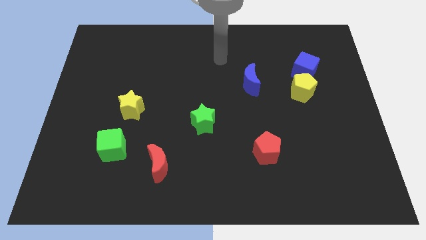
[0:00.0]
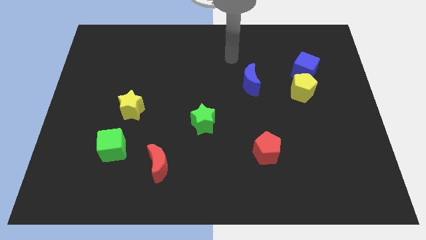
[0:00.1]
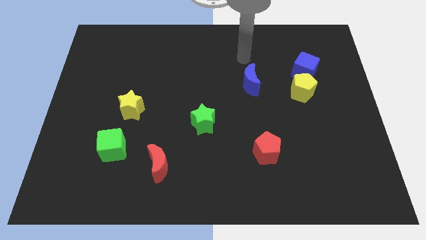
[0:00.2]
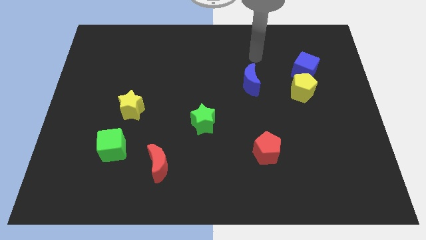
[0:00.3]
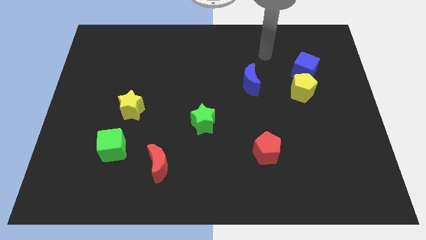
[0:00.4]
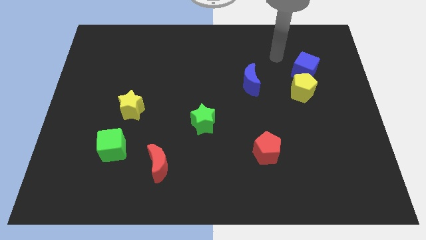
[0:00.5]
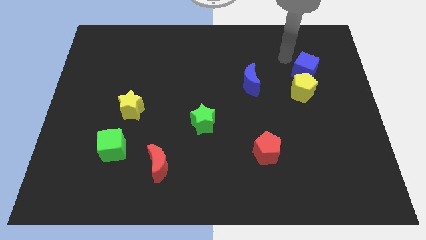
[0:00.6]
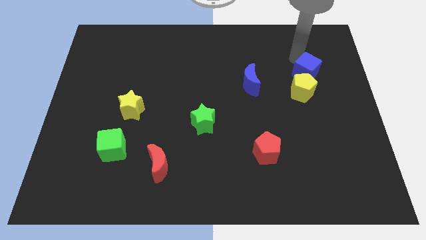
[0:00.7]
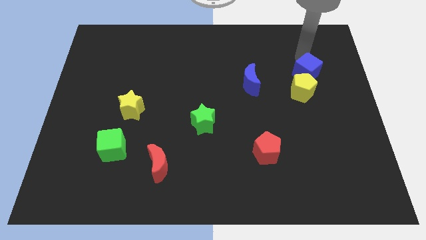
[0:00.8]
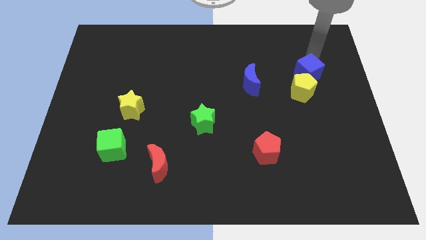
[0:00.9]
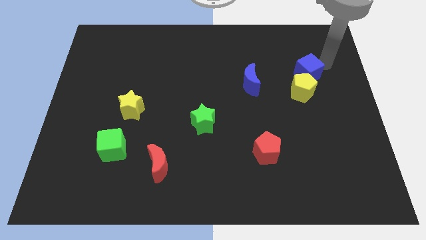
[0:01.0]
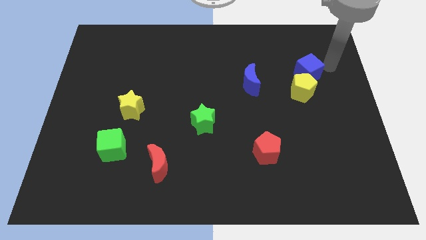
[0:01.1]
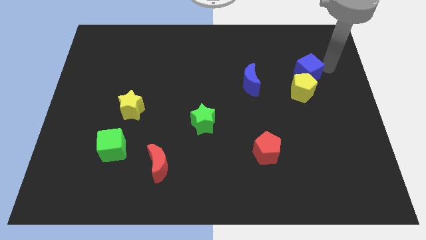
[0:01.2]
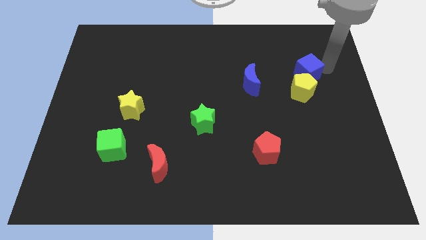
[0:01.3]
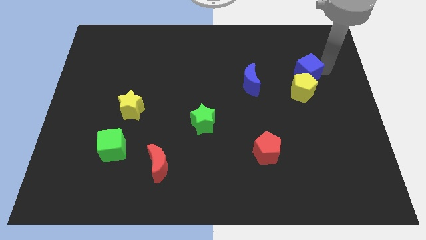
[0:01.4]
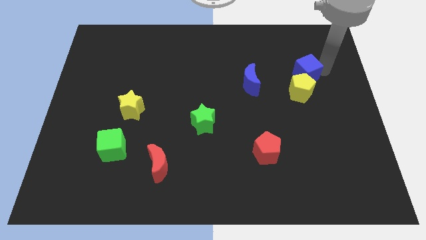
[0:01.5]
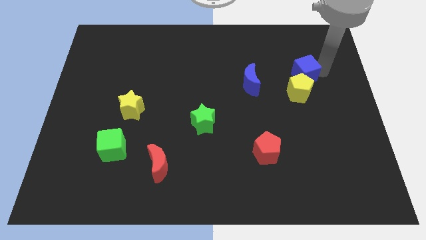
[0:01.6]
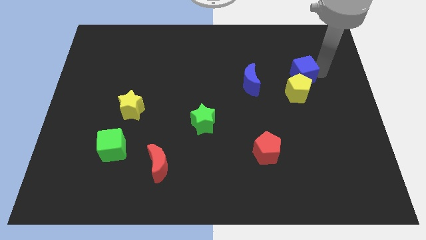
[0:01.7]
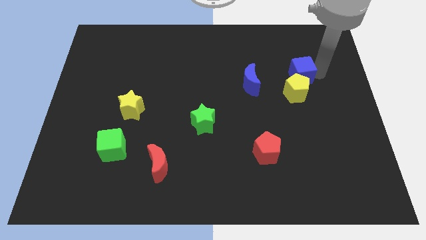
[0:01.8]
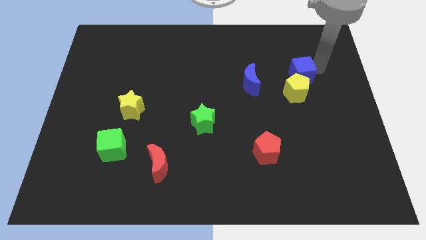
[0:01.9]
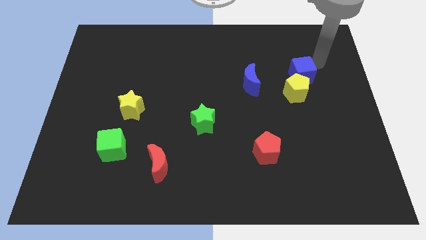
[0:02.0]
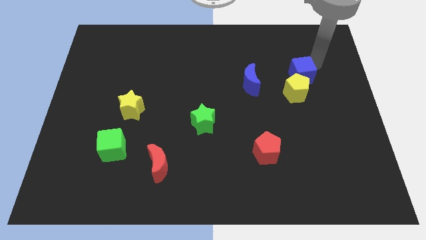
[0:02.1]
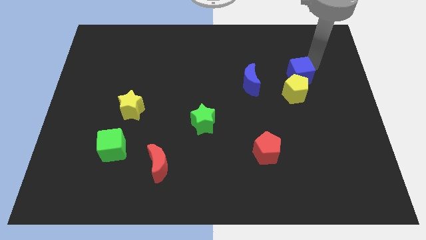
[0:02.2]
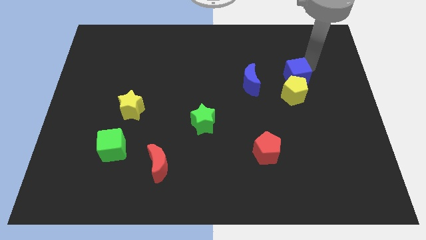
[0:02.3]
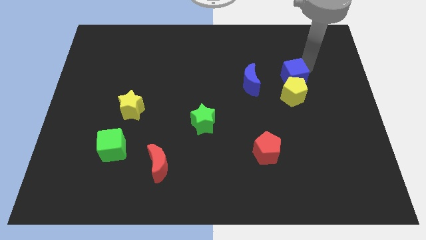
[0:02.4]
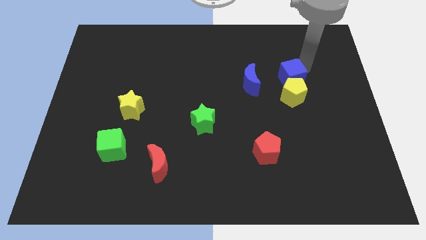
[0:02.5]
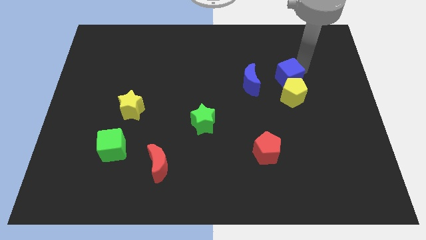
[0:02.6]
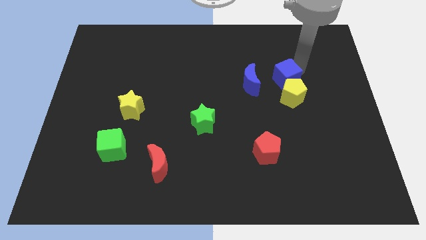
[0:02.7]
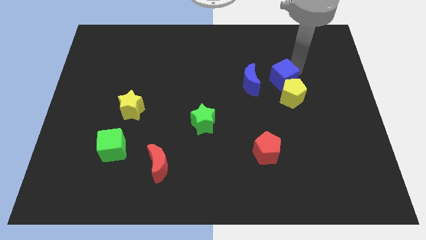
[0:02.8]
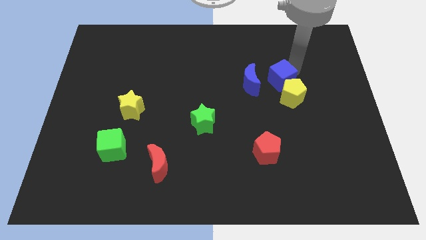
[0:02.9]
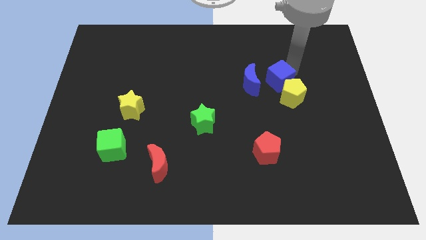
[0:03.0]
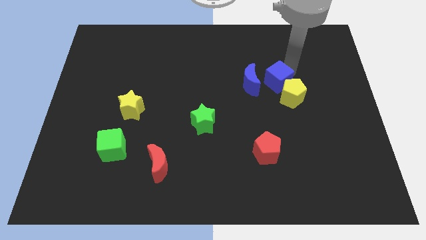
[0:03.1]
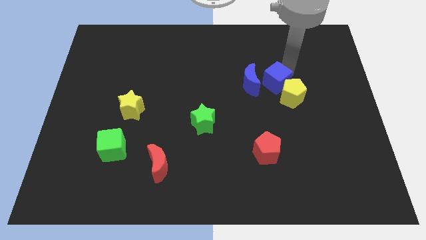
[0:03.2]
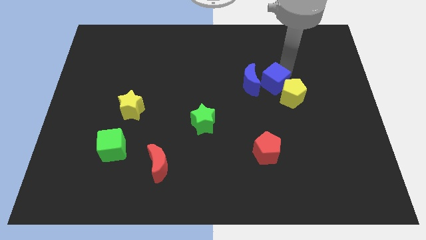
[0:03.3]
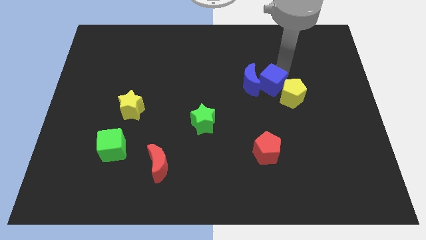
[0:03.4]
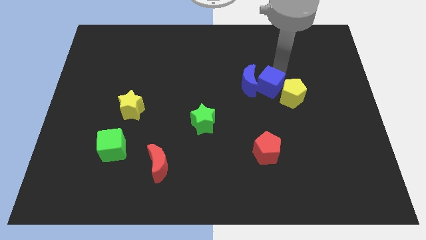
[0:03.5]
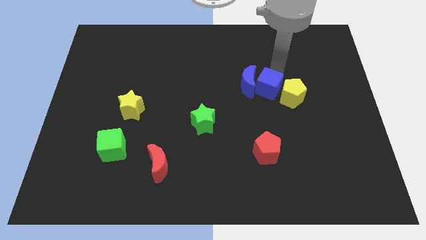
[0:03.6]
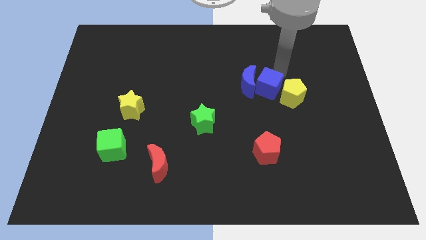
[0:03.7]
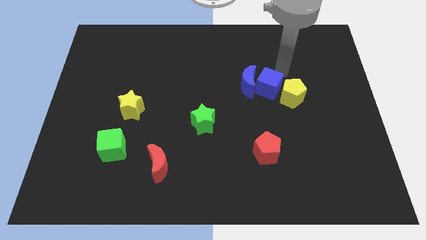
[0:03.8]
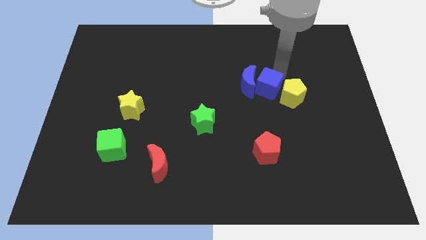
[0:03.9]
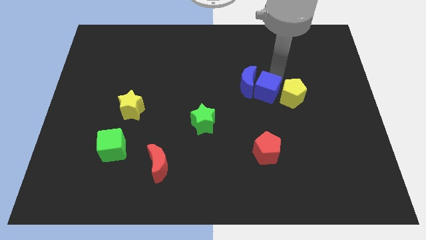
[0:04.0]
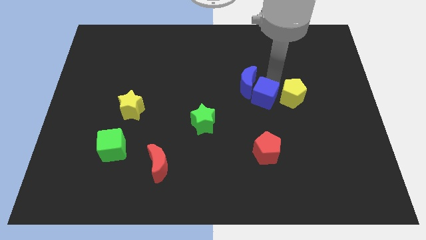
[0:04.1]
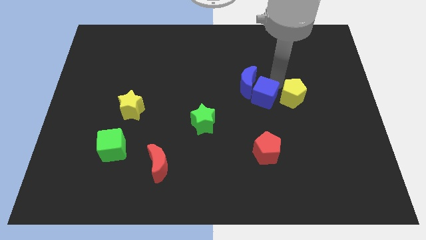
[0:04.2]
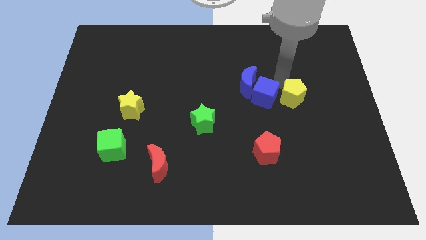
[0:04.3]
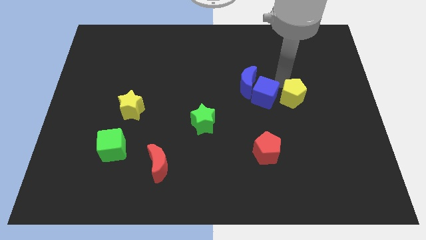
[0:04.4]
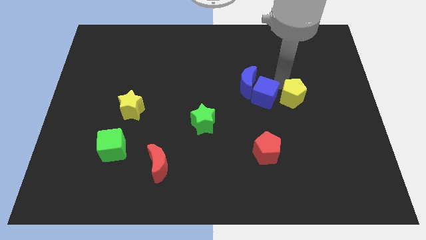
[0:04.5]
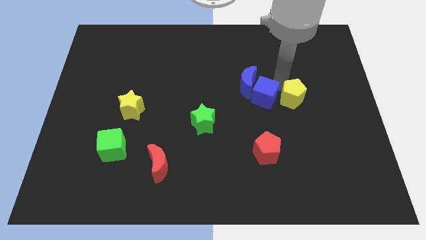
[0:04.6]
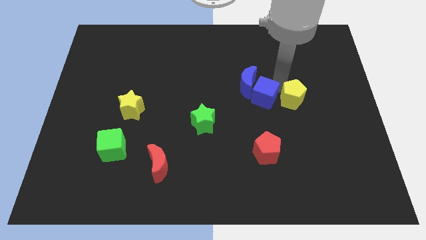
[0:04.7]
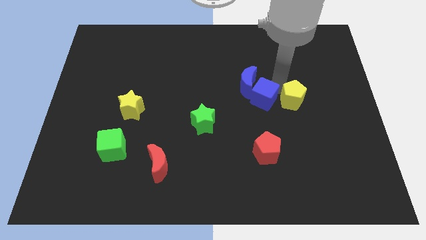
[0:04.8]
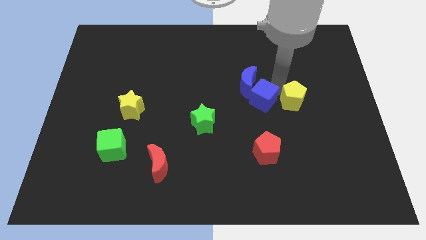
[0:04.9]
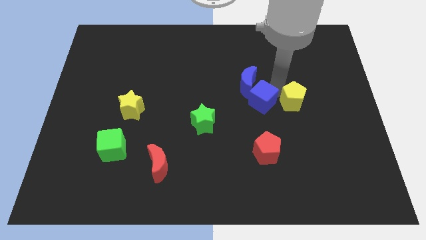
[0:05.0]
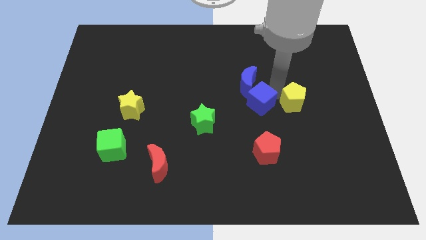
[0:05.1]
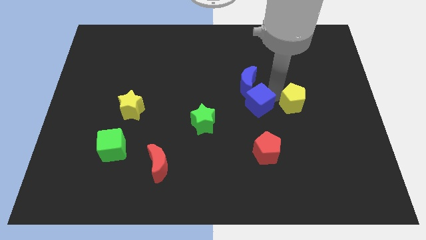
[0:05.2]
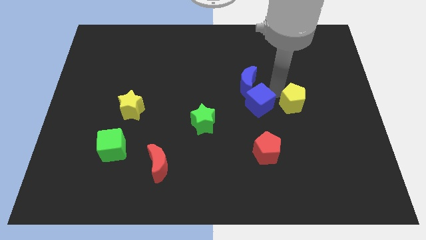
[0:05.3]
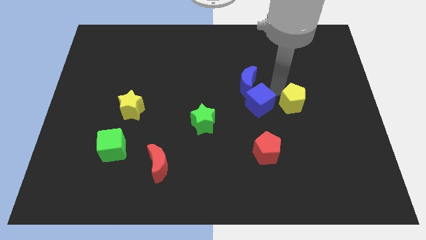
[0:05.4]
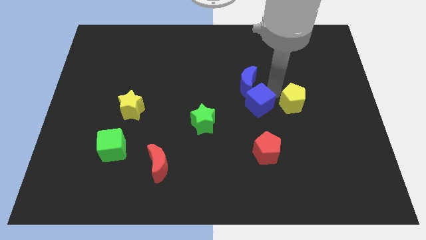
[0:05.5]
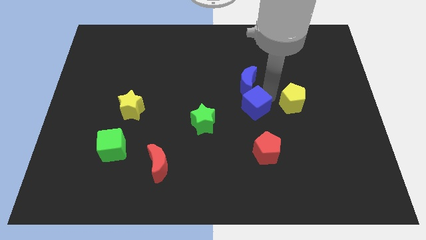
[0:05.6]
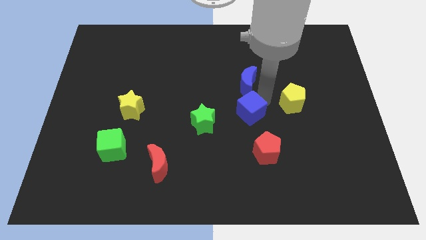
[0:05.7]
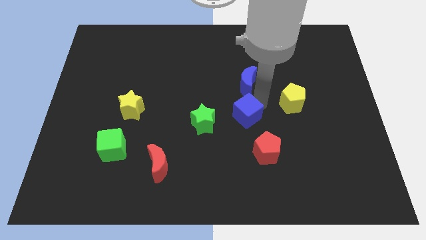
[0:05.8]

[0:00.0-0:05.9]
push the blue cube down and then left

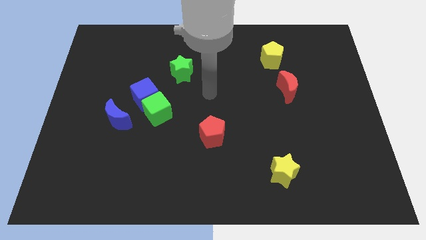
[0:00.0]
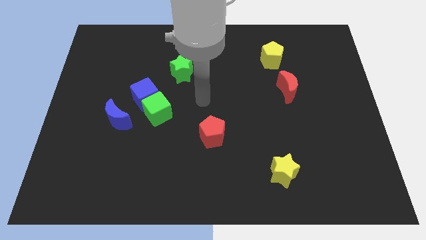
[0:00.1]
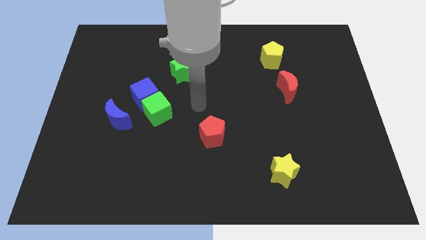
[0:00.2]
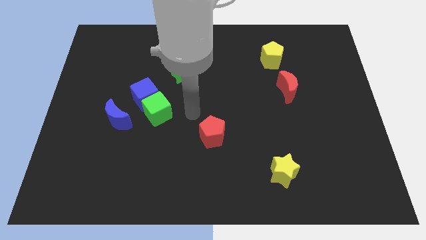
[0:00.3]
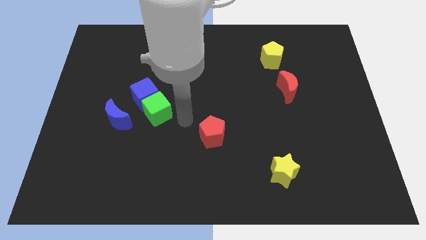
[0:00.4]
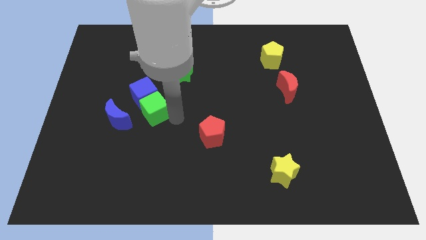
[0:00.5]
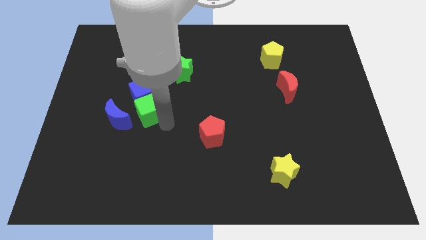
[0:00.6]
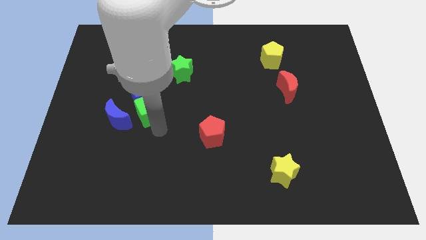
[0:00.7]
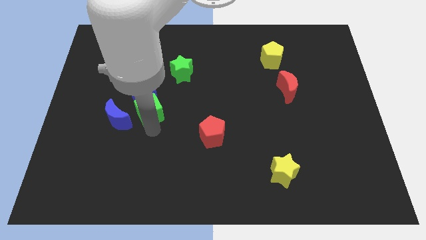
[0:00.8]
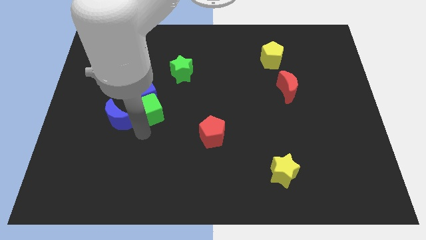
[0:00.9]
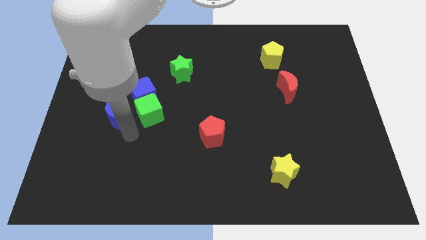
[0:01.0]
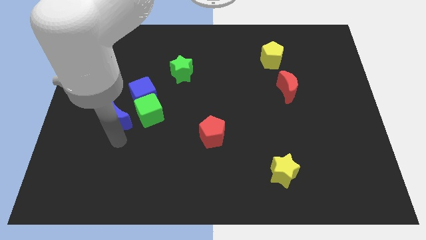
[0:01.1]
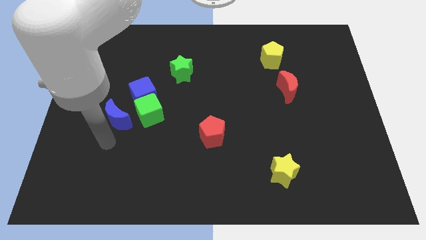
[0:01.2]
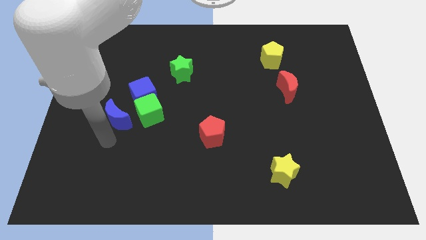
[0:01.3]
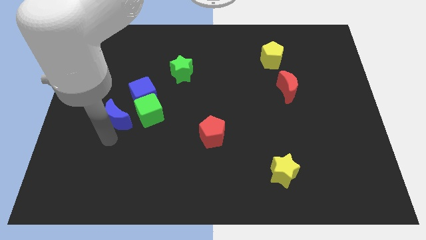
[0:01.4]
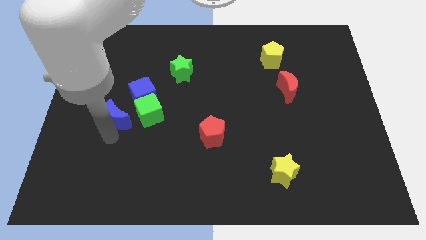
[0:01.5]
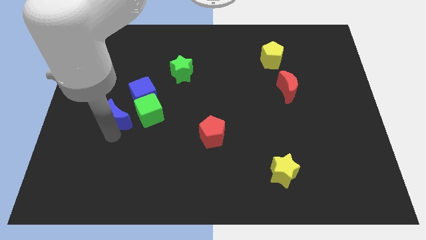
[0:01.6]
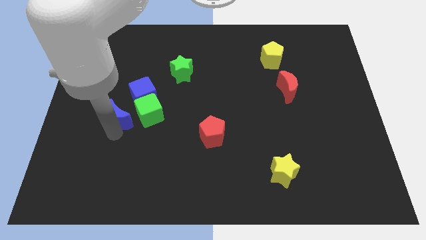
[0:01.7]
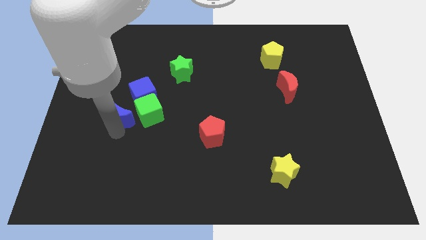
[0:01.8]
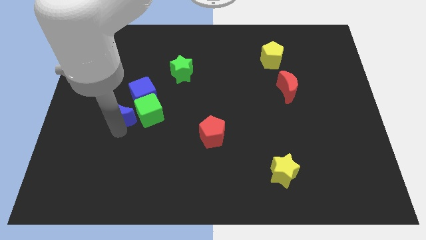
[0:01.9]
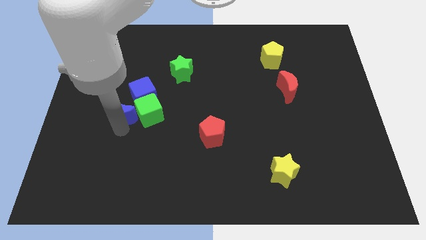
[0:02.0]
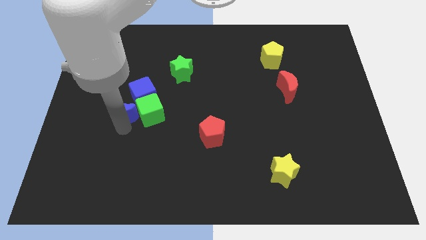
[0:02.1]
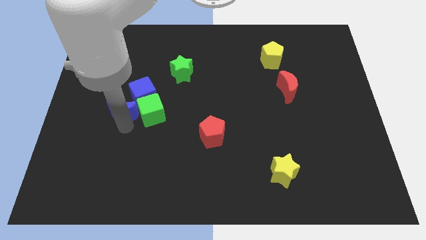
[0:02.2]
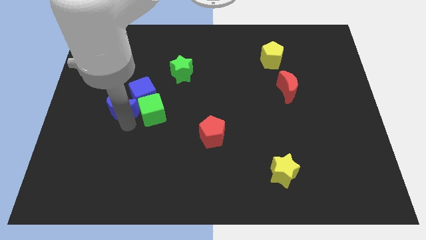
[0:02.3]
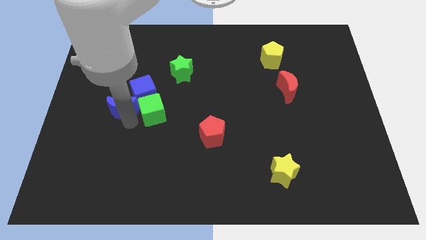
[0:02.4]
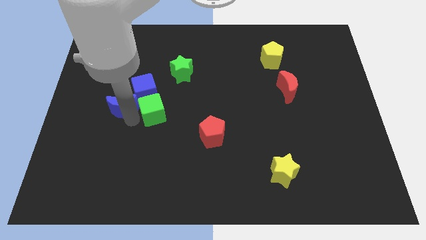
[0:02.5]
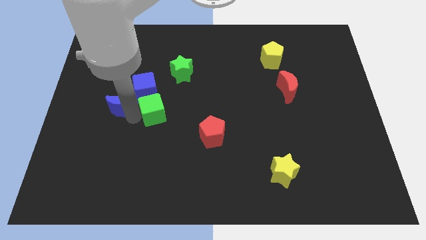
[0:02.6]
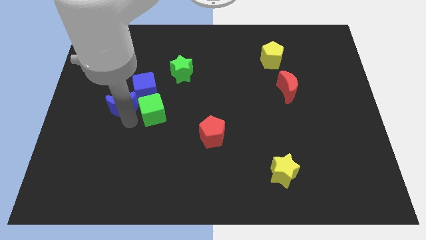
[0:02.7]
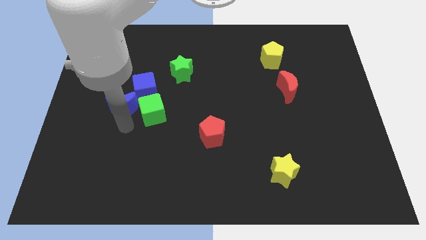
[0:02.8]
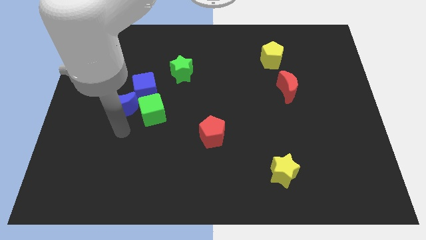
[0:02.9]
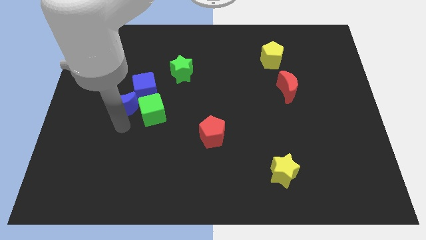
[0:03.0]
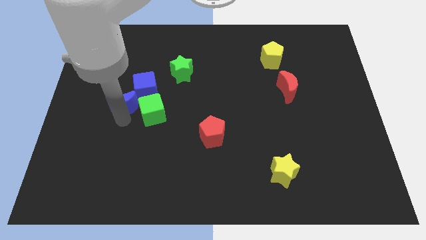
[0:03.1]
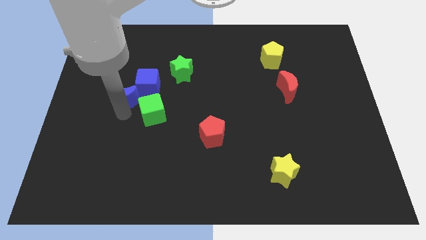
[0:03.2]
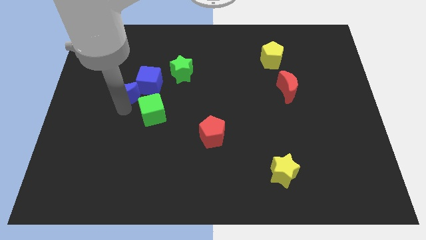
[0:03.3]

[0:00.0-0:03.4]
slightly move the blue moon up
